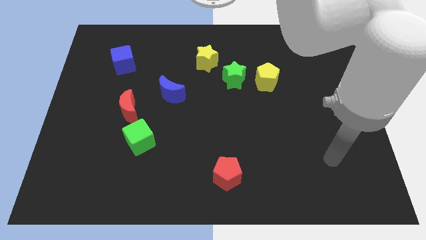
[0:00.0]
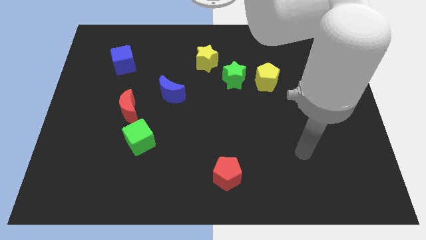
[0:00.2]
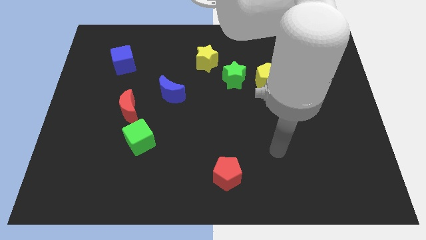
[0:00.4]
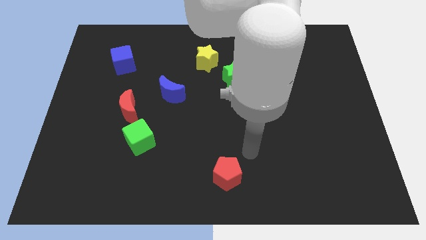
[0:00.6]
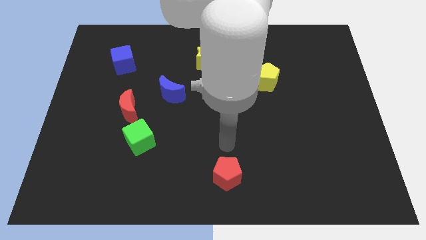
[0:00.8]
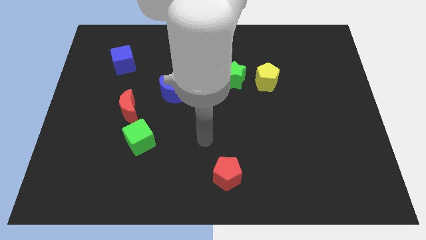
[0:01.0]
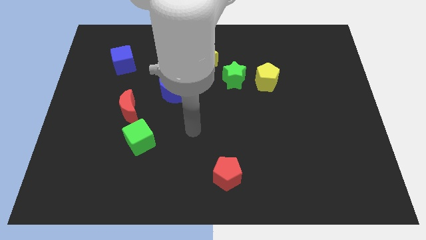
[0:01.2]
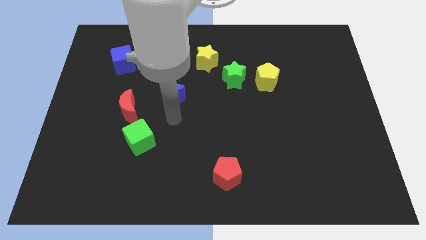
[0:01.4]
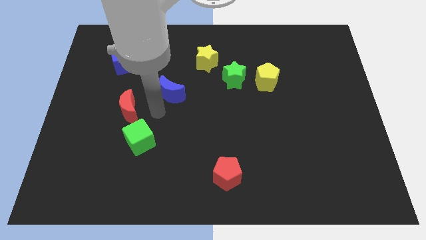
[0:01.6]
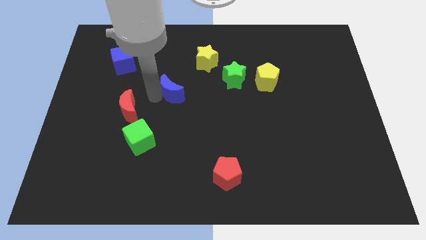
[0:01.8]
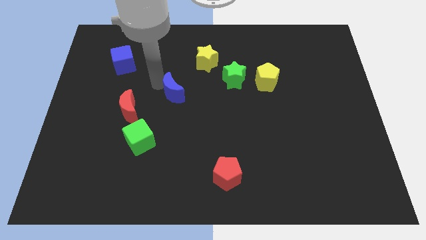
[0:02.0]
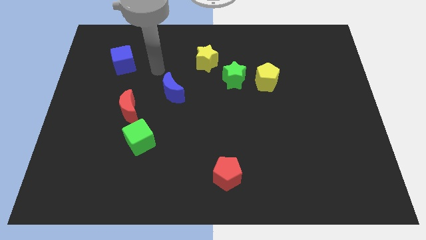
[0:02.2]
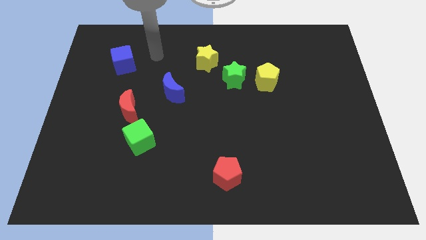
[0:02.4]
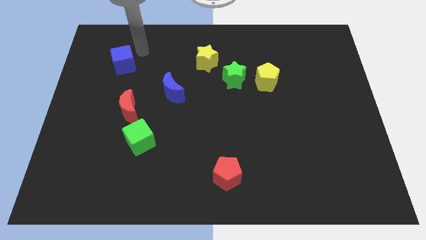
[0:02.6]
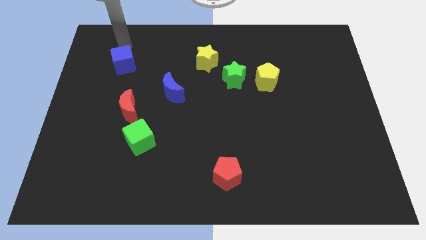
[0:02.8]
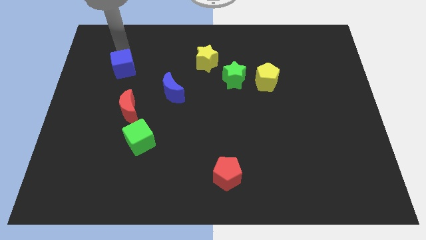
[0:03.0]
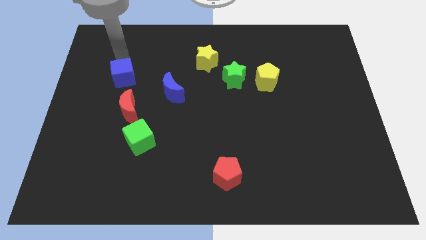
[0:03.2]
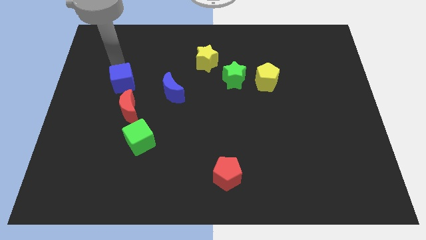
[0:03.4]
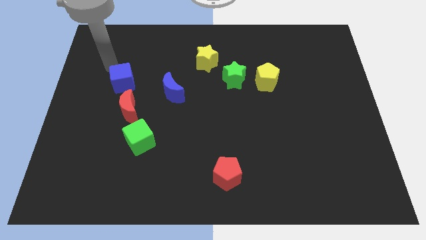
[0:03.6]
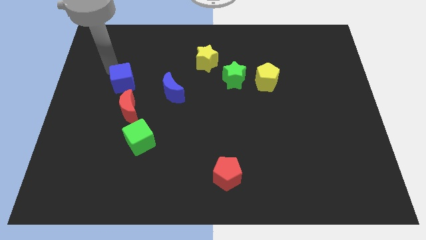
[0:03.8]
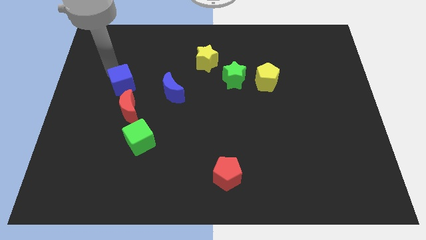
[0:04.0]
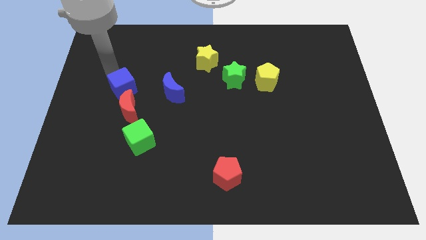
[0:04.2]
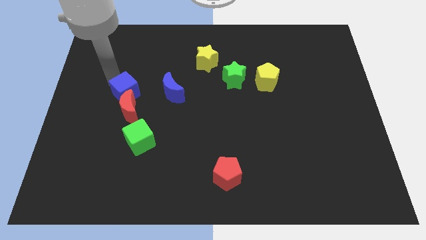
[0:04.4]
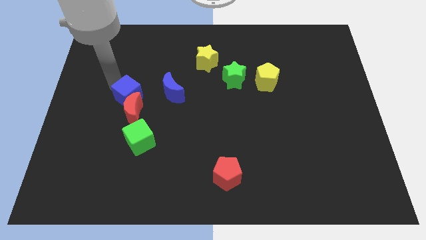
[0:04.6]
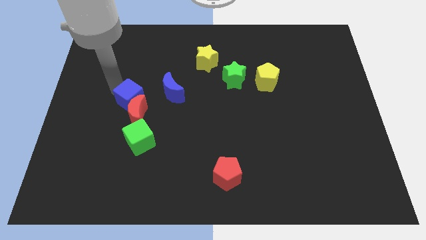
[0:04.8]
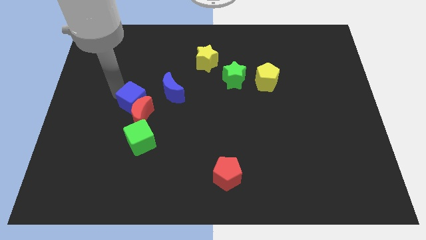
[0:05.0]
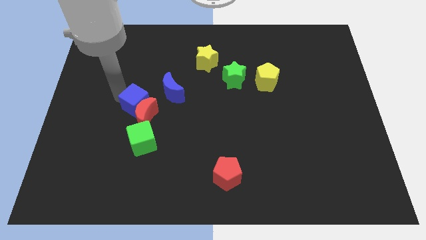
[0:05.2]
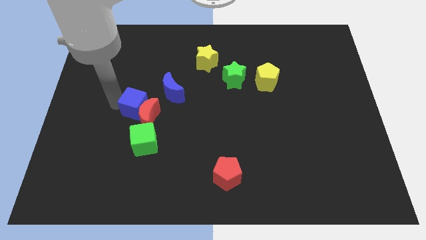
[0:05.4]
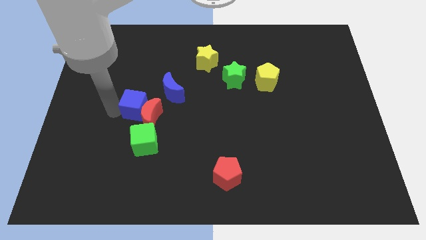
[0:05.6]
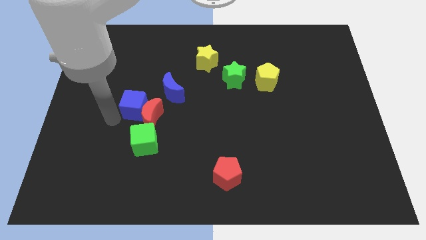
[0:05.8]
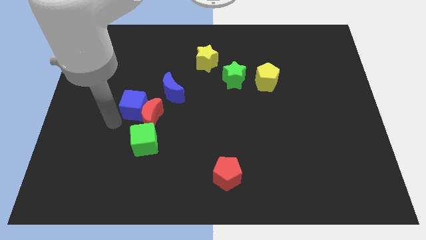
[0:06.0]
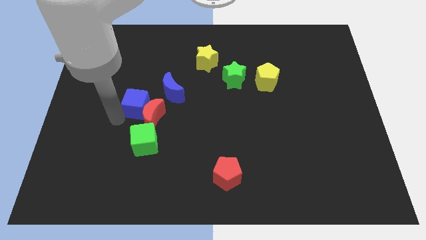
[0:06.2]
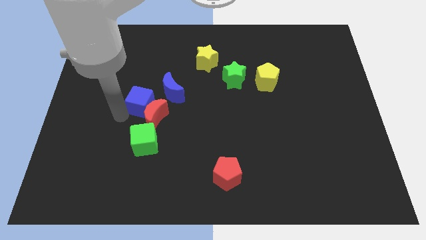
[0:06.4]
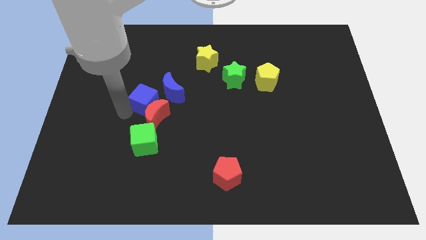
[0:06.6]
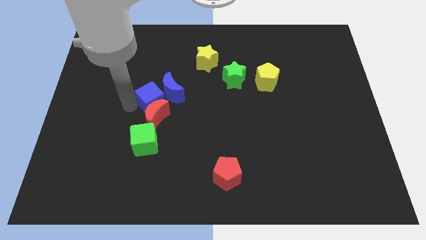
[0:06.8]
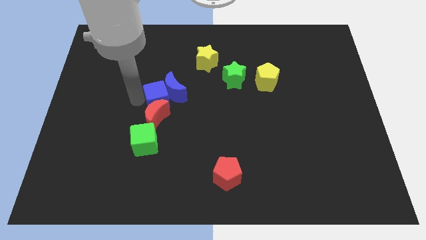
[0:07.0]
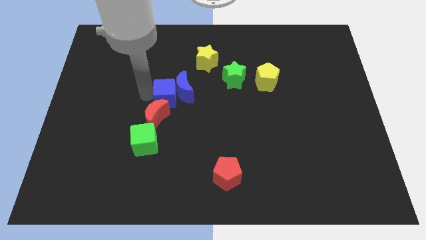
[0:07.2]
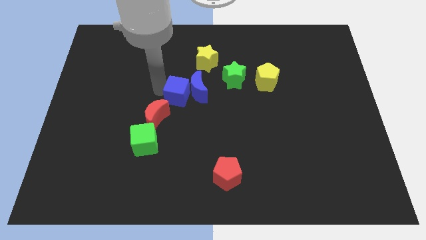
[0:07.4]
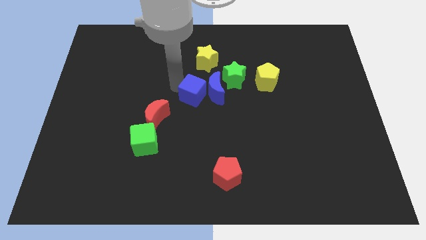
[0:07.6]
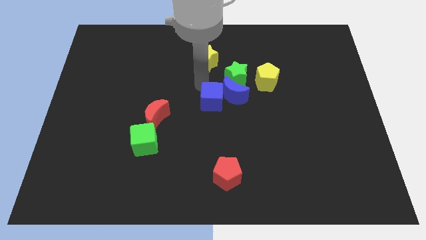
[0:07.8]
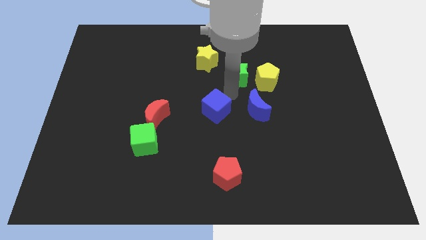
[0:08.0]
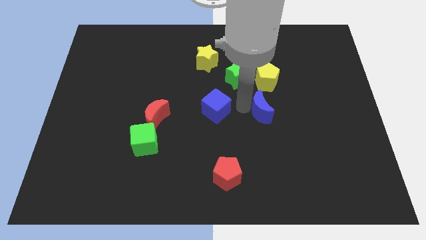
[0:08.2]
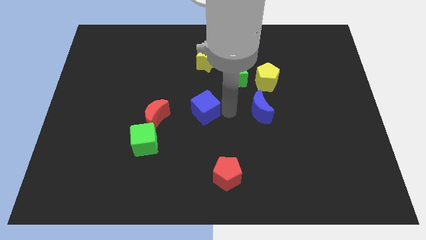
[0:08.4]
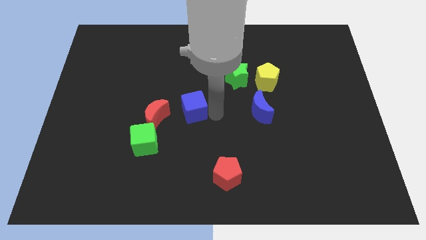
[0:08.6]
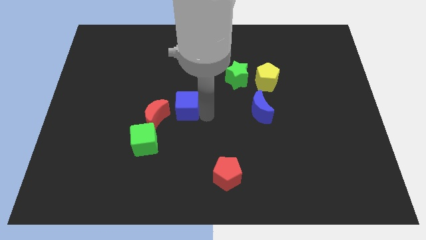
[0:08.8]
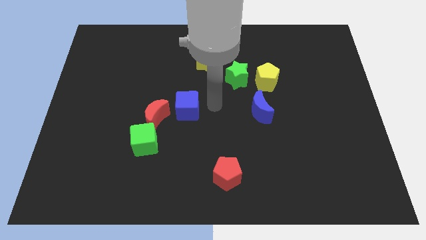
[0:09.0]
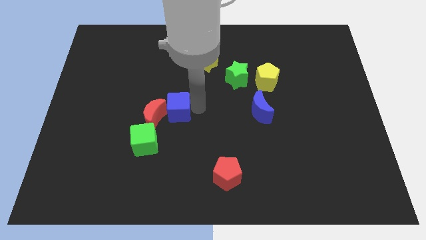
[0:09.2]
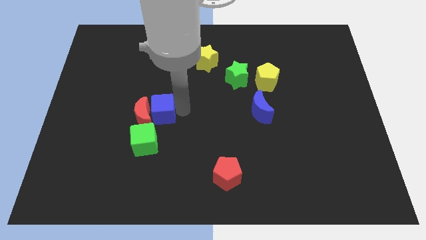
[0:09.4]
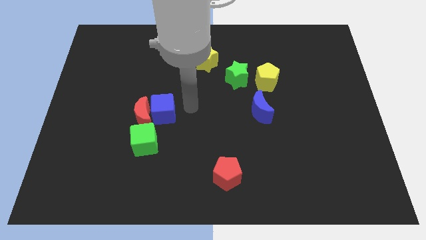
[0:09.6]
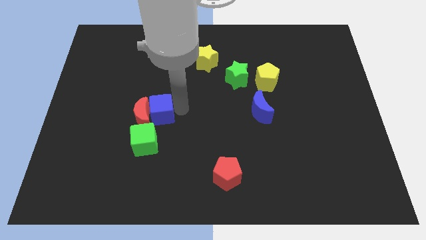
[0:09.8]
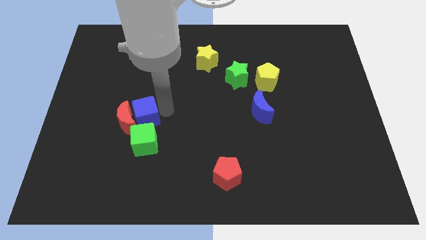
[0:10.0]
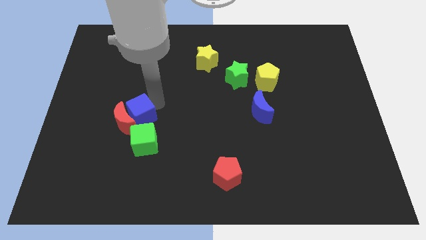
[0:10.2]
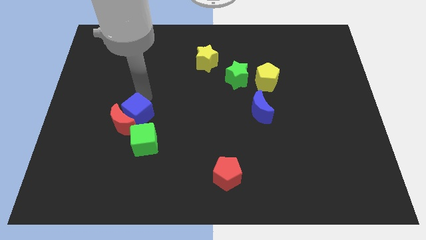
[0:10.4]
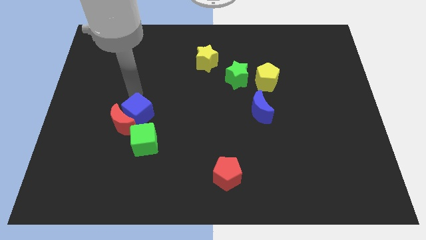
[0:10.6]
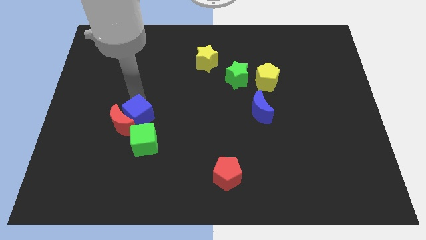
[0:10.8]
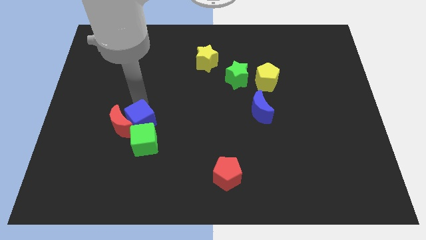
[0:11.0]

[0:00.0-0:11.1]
move the blue cube to the green cube

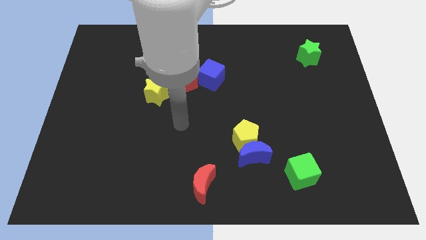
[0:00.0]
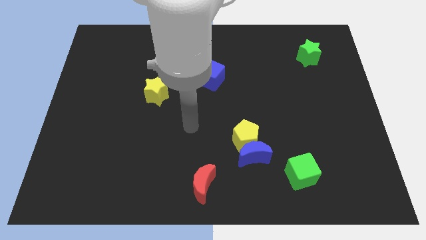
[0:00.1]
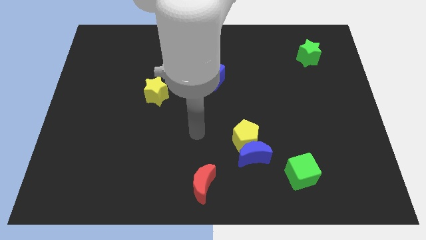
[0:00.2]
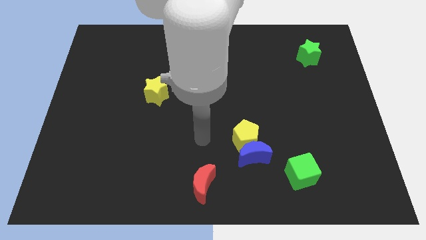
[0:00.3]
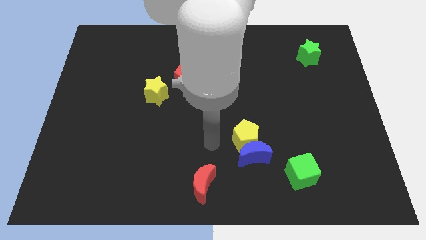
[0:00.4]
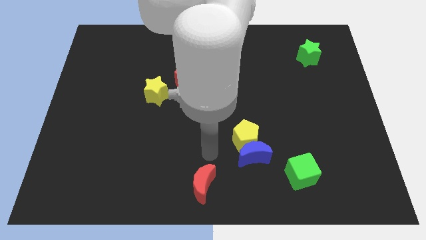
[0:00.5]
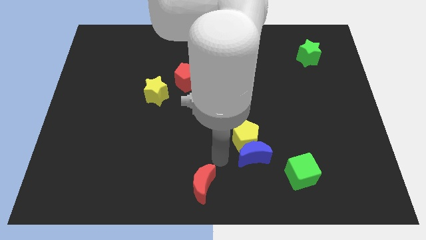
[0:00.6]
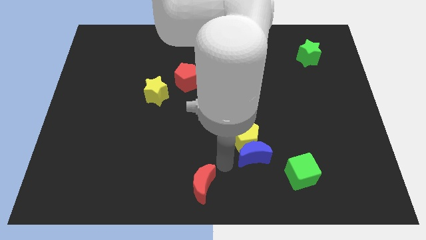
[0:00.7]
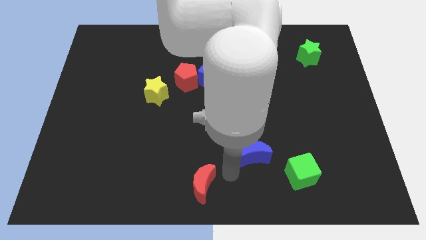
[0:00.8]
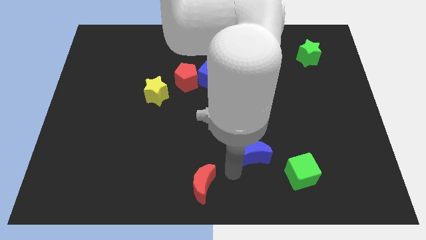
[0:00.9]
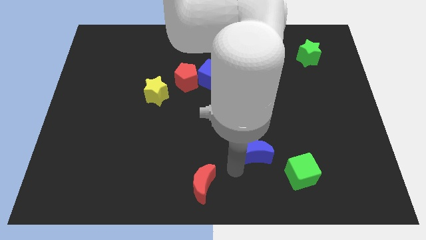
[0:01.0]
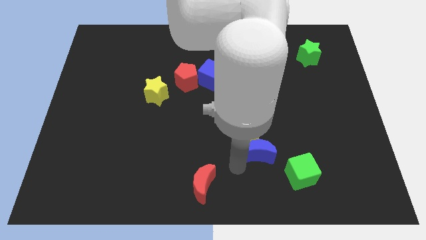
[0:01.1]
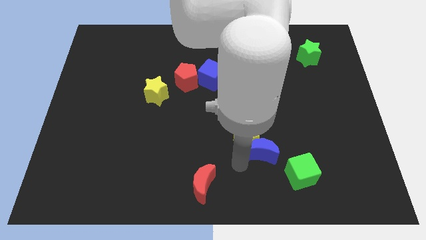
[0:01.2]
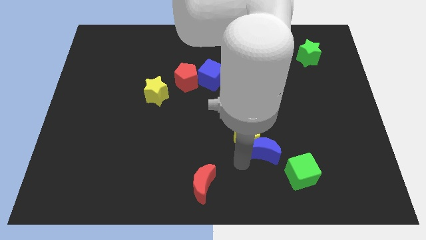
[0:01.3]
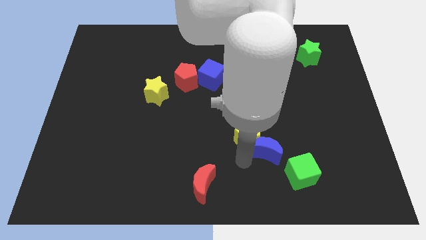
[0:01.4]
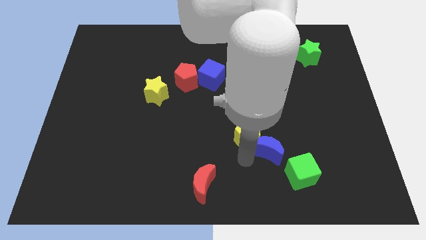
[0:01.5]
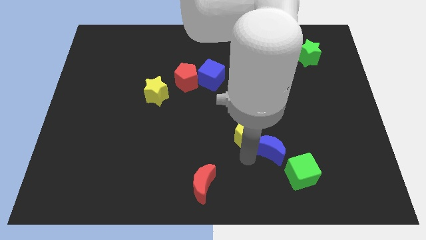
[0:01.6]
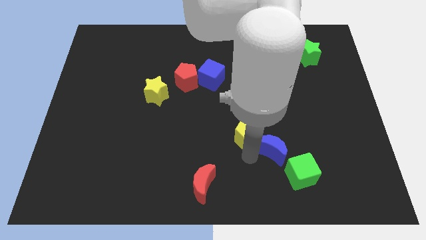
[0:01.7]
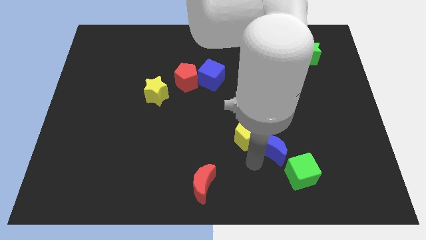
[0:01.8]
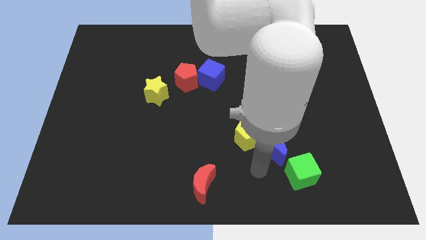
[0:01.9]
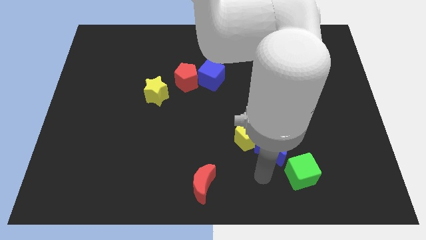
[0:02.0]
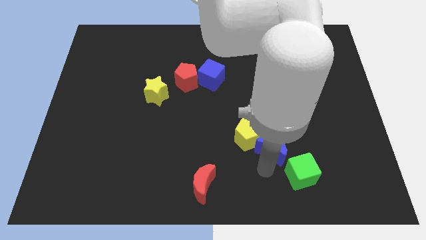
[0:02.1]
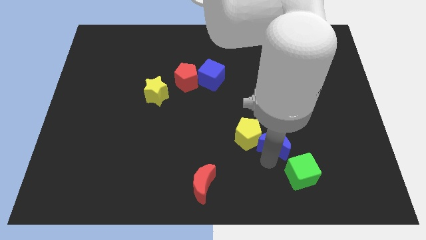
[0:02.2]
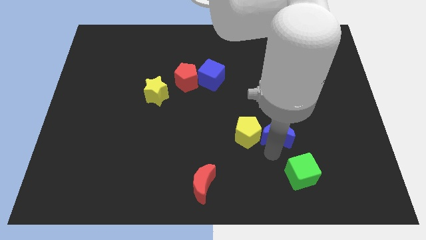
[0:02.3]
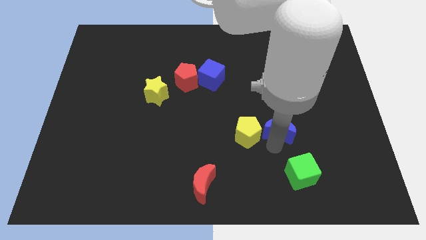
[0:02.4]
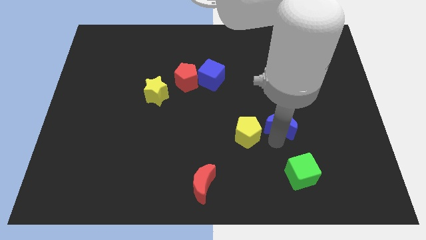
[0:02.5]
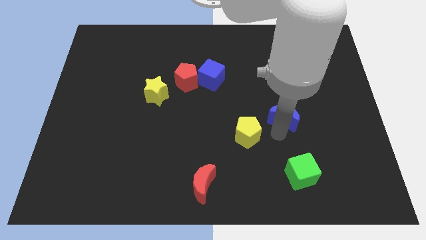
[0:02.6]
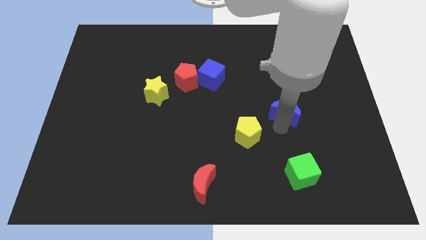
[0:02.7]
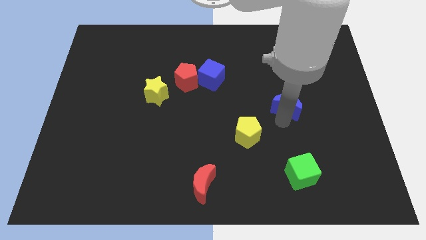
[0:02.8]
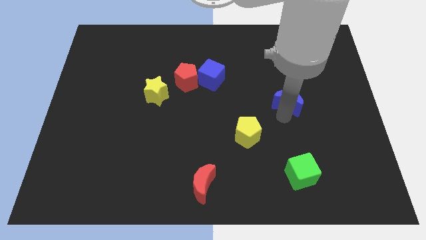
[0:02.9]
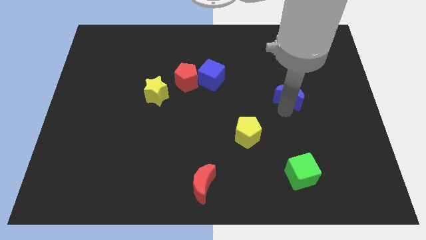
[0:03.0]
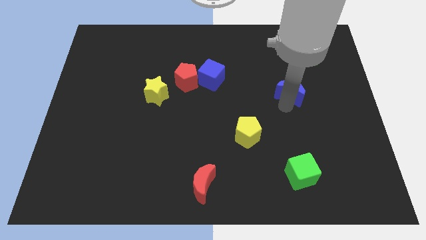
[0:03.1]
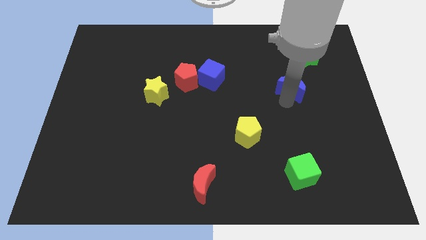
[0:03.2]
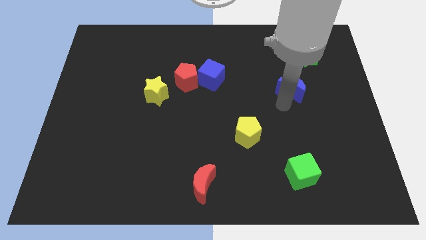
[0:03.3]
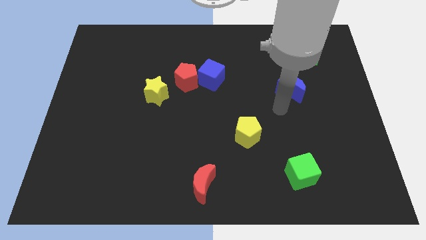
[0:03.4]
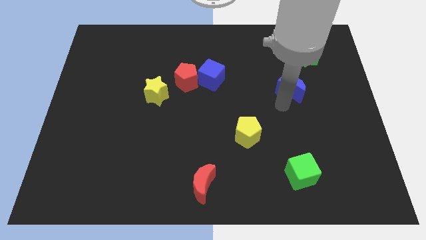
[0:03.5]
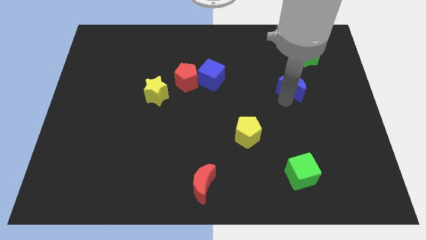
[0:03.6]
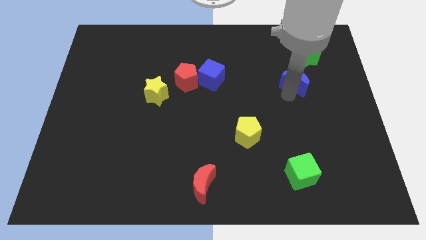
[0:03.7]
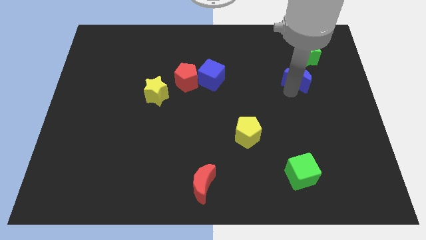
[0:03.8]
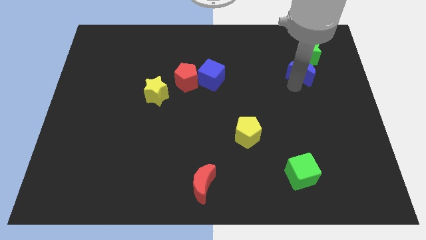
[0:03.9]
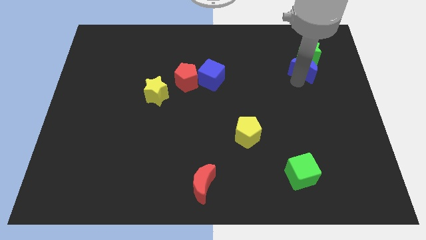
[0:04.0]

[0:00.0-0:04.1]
slide the blue moon next to the green star
